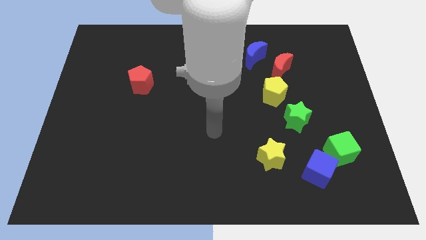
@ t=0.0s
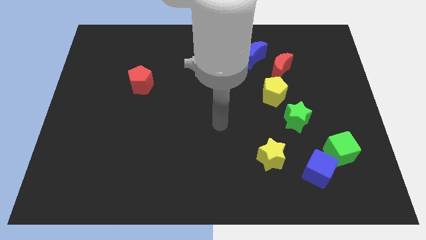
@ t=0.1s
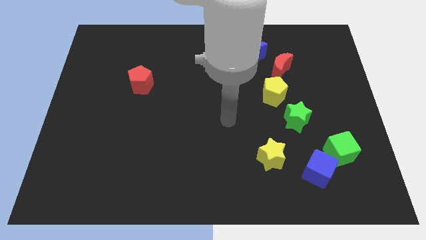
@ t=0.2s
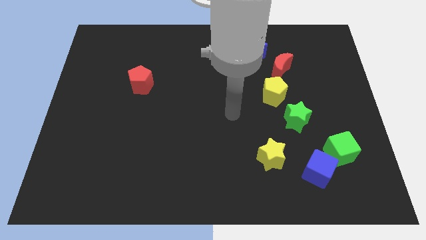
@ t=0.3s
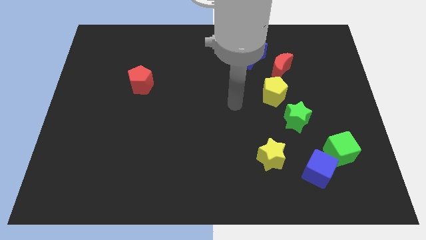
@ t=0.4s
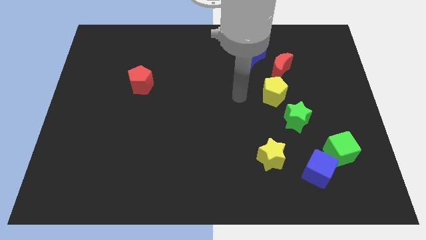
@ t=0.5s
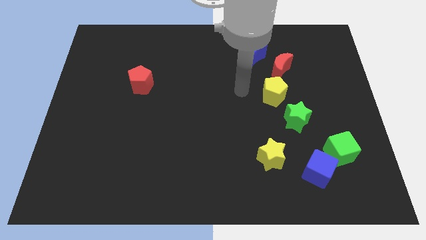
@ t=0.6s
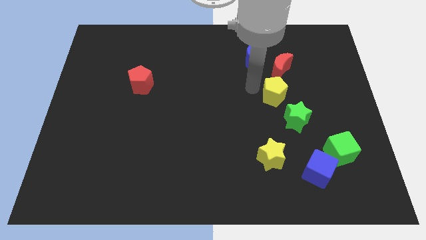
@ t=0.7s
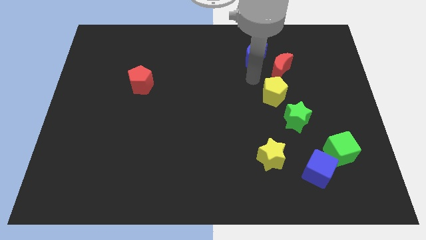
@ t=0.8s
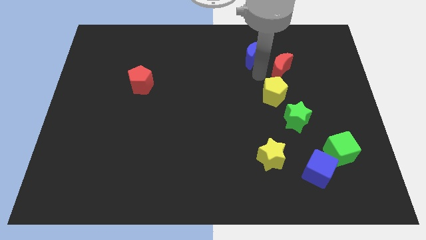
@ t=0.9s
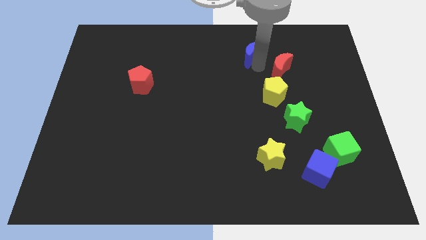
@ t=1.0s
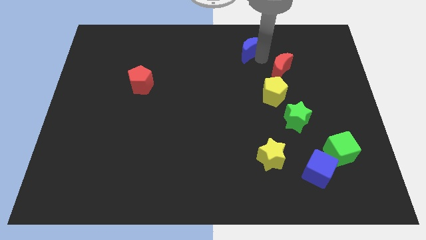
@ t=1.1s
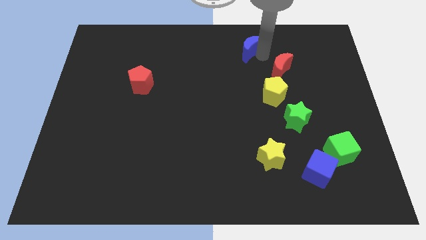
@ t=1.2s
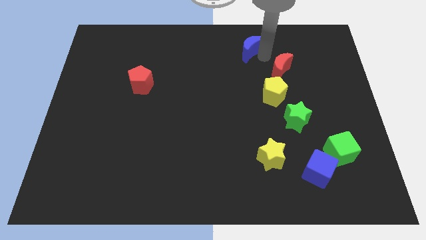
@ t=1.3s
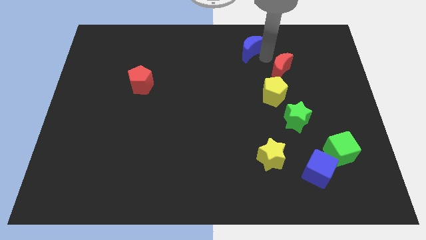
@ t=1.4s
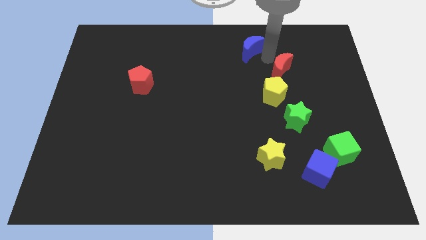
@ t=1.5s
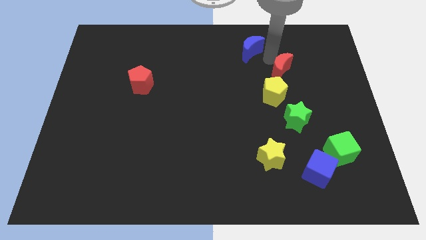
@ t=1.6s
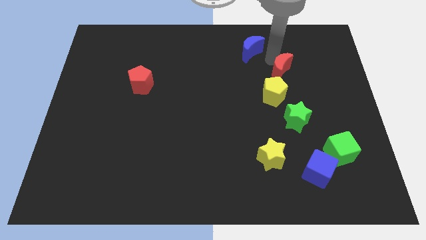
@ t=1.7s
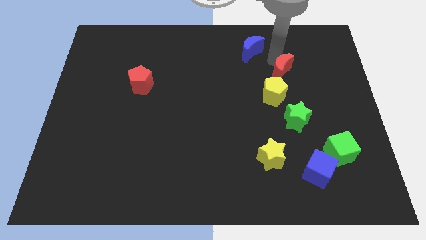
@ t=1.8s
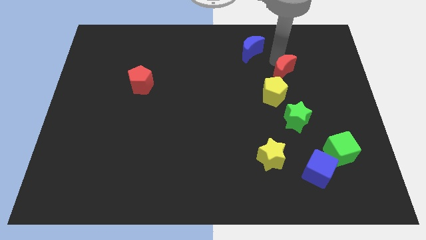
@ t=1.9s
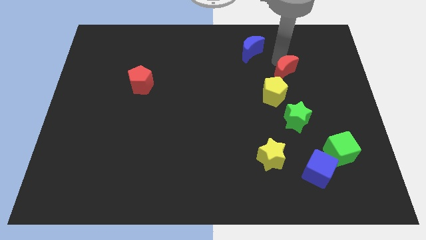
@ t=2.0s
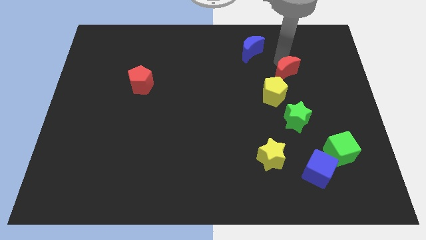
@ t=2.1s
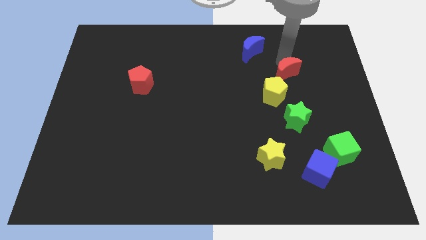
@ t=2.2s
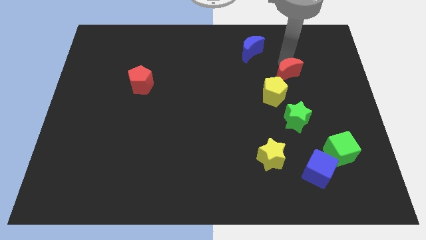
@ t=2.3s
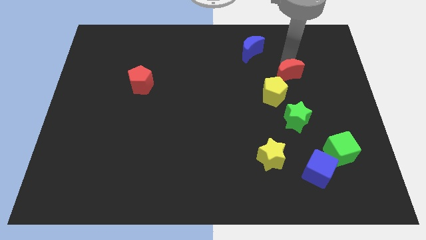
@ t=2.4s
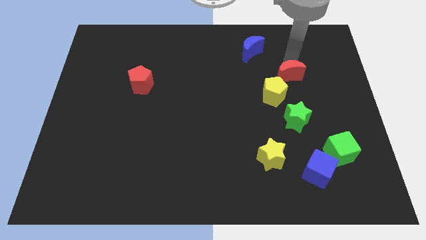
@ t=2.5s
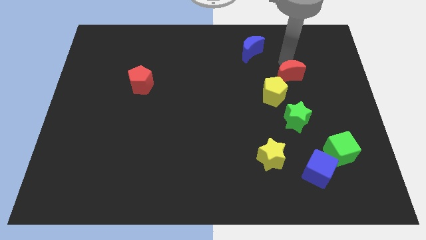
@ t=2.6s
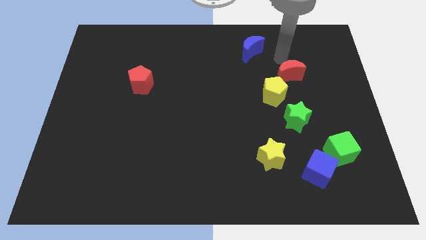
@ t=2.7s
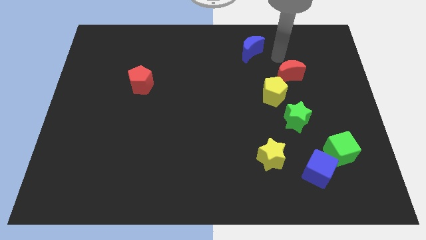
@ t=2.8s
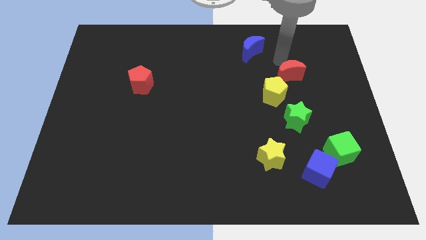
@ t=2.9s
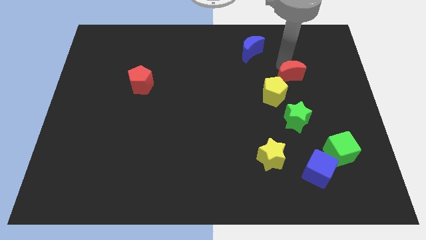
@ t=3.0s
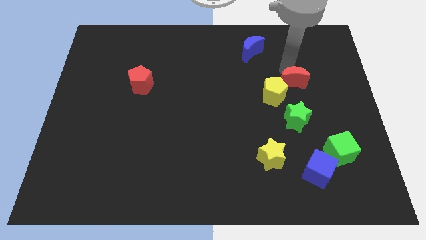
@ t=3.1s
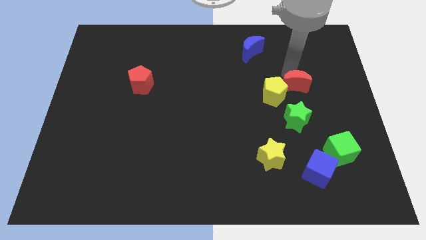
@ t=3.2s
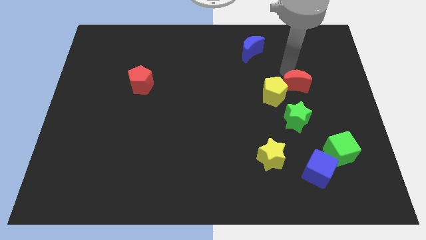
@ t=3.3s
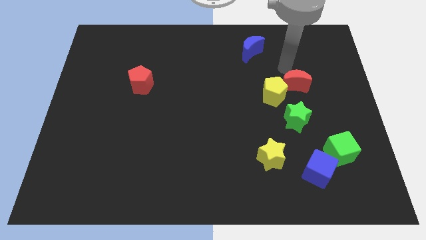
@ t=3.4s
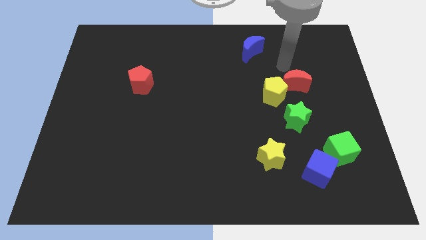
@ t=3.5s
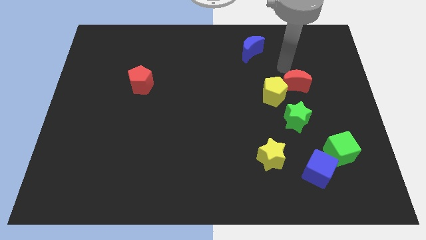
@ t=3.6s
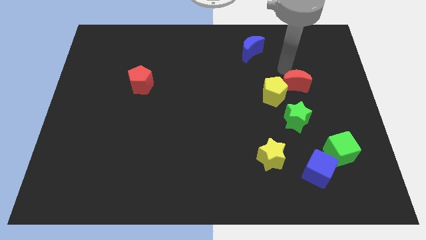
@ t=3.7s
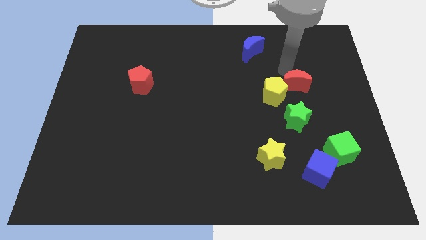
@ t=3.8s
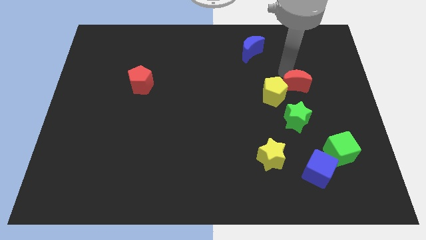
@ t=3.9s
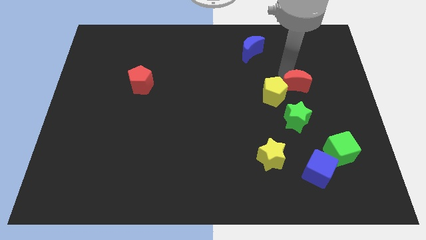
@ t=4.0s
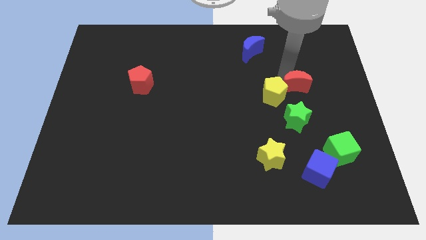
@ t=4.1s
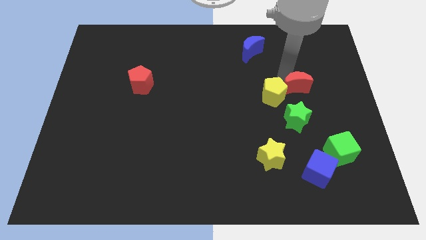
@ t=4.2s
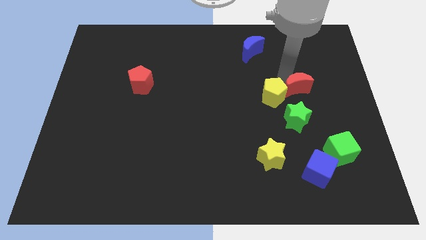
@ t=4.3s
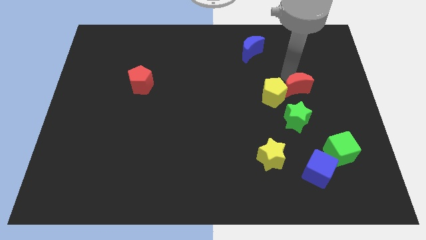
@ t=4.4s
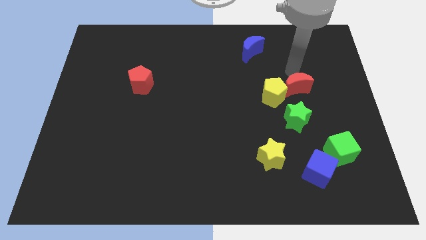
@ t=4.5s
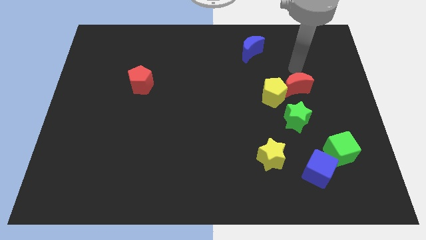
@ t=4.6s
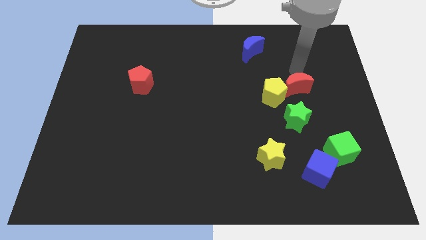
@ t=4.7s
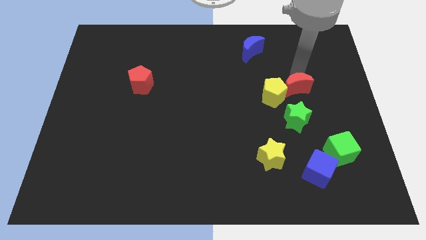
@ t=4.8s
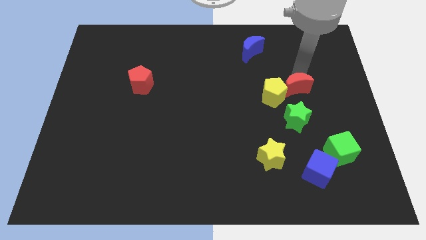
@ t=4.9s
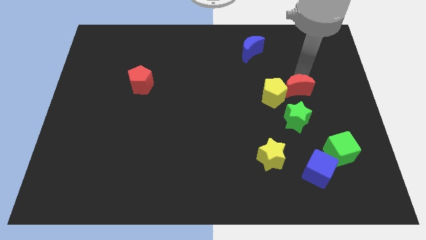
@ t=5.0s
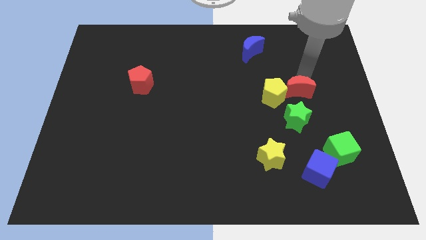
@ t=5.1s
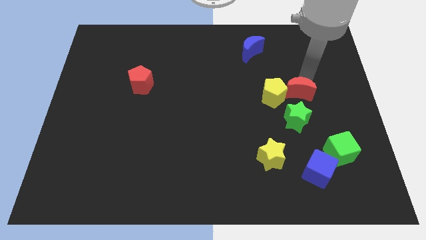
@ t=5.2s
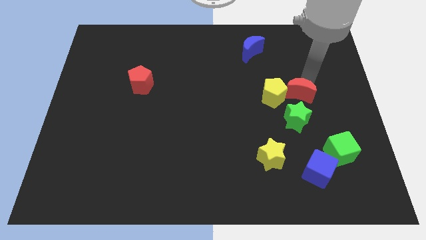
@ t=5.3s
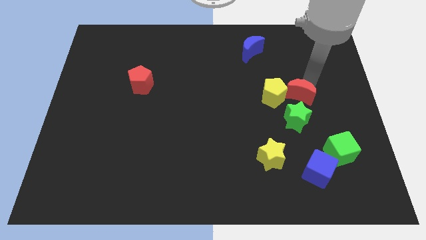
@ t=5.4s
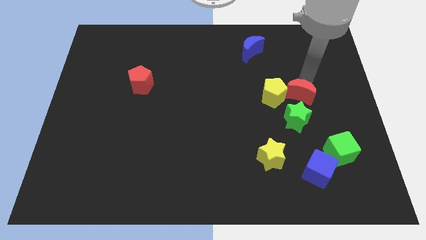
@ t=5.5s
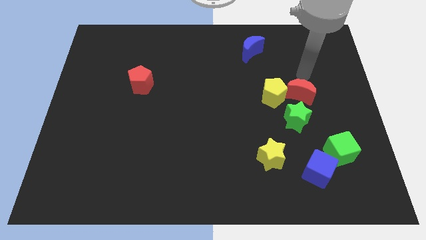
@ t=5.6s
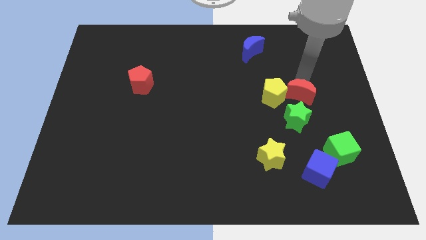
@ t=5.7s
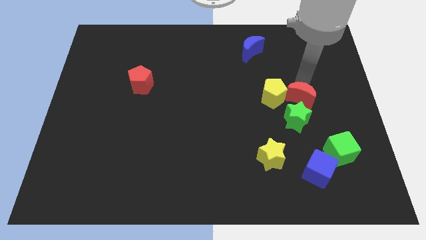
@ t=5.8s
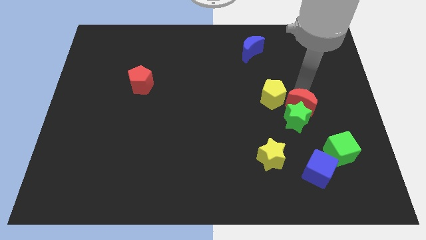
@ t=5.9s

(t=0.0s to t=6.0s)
move the red moon next to the green star

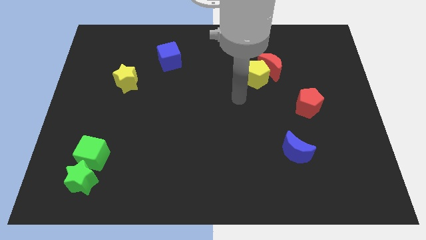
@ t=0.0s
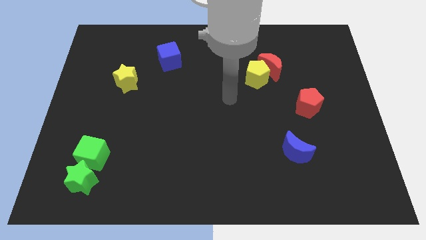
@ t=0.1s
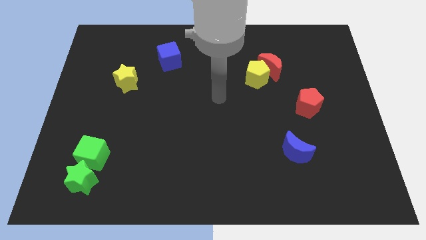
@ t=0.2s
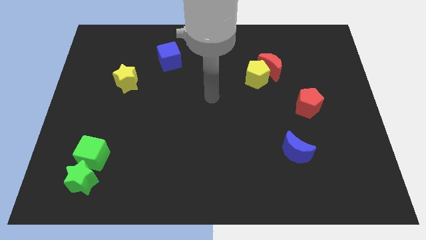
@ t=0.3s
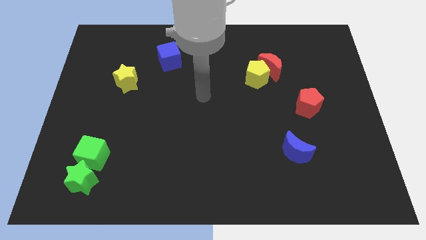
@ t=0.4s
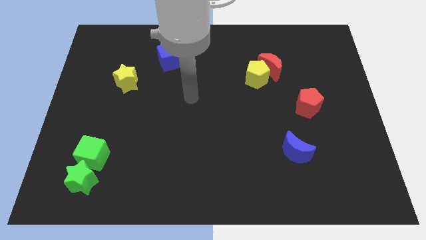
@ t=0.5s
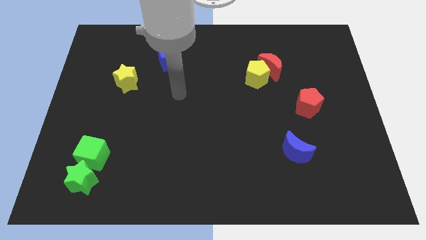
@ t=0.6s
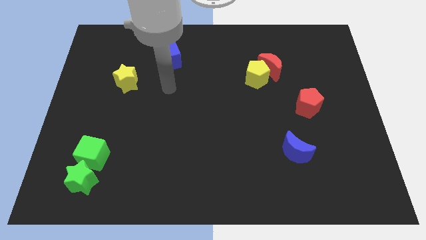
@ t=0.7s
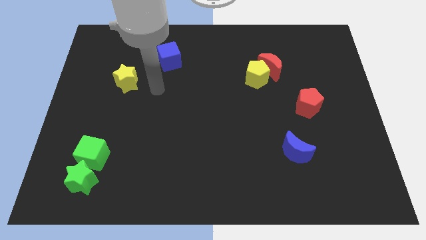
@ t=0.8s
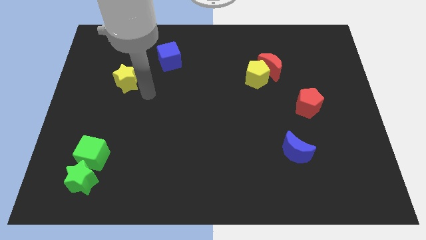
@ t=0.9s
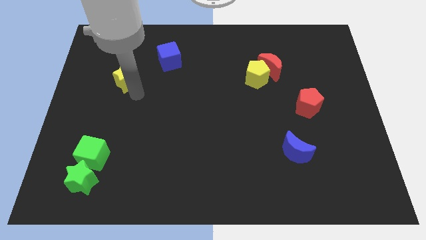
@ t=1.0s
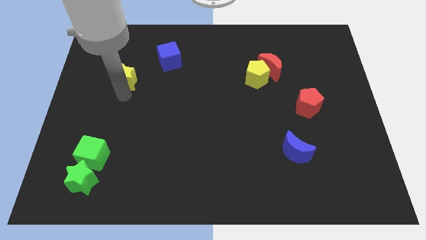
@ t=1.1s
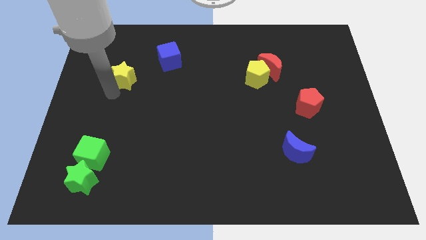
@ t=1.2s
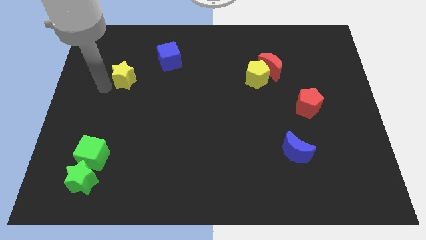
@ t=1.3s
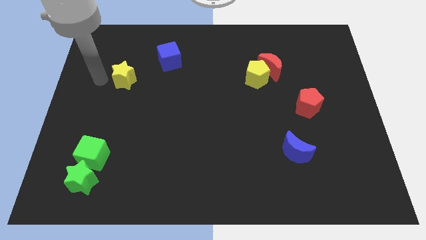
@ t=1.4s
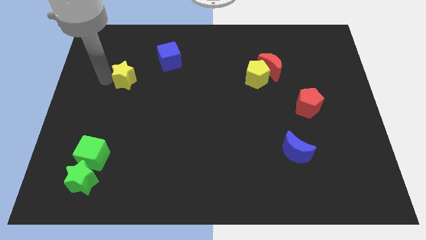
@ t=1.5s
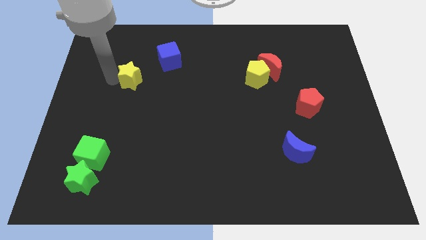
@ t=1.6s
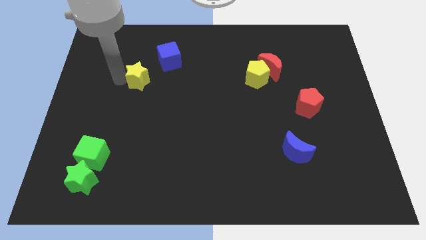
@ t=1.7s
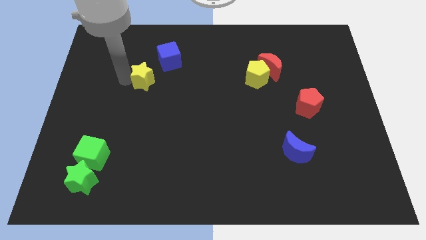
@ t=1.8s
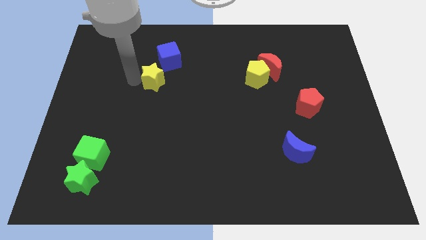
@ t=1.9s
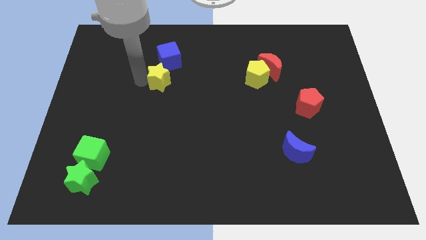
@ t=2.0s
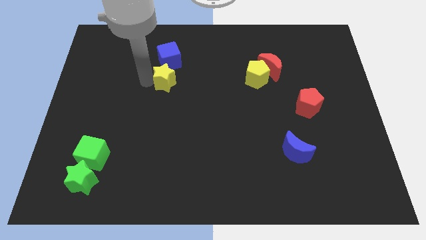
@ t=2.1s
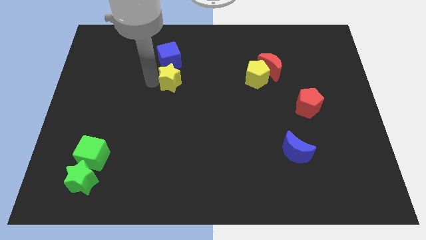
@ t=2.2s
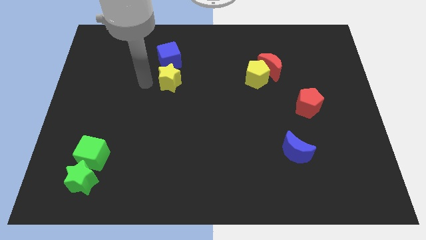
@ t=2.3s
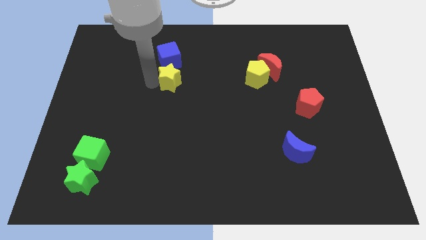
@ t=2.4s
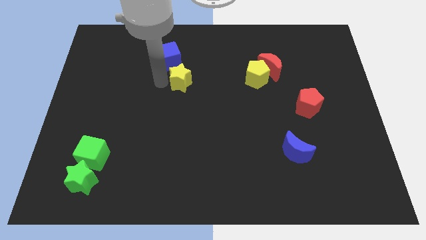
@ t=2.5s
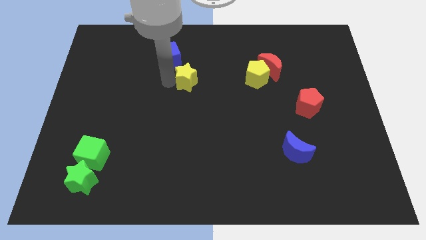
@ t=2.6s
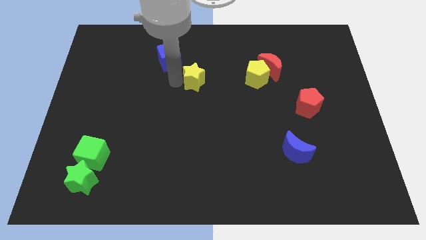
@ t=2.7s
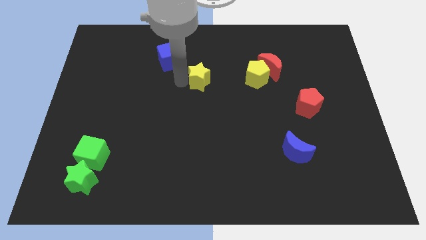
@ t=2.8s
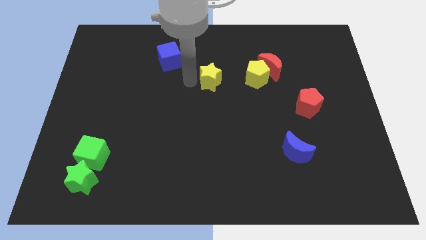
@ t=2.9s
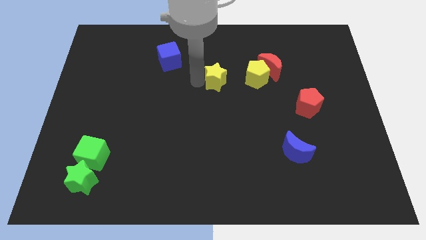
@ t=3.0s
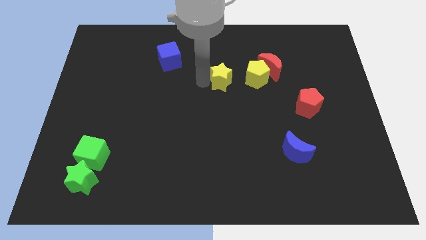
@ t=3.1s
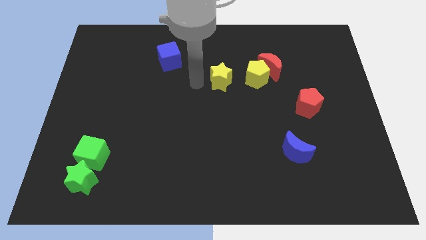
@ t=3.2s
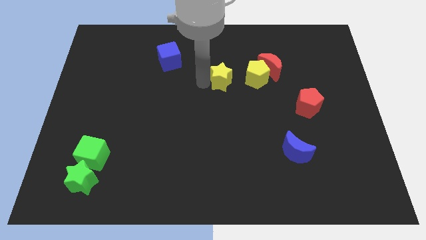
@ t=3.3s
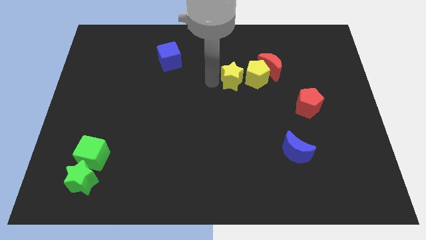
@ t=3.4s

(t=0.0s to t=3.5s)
push the yellow star next to the yellow pentagon
